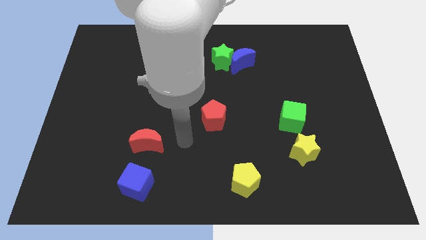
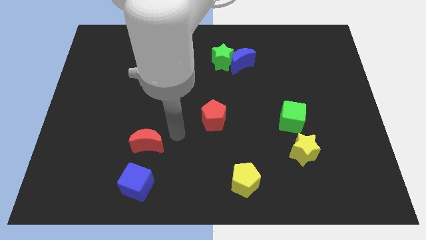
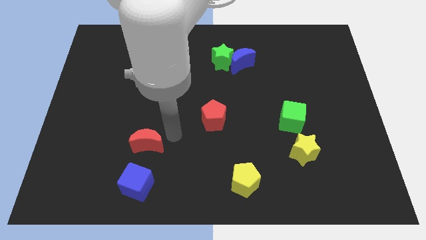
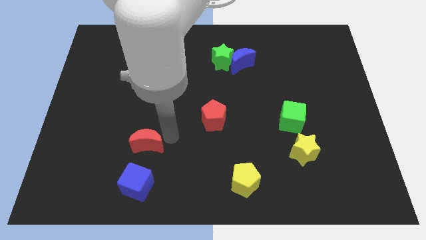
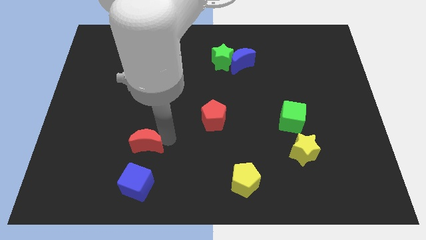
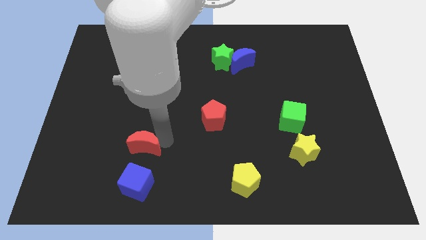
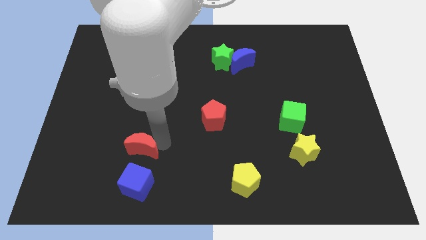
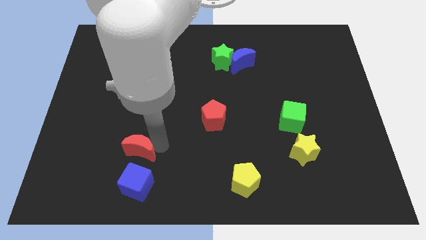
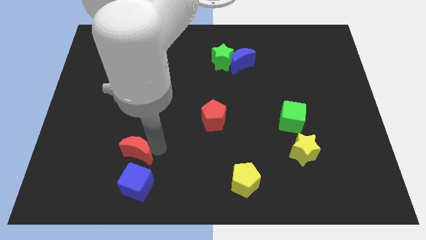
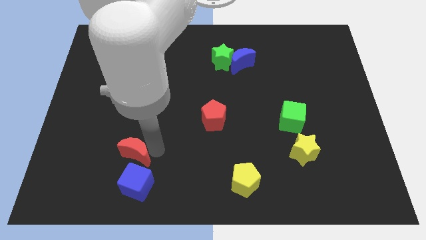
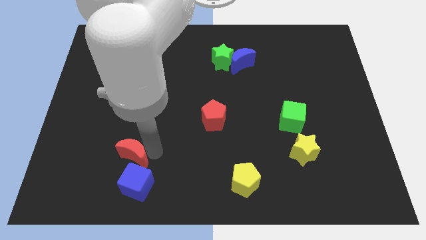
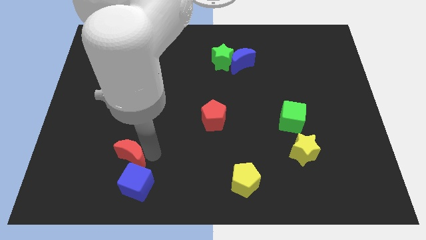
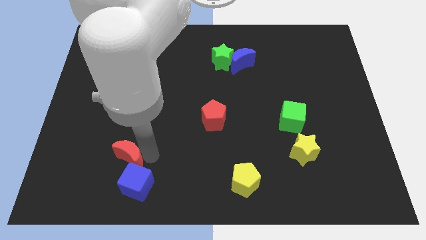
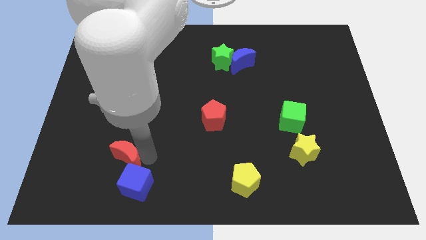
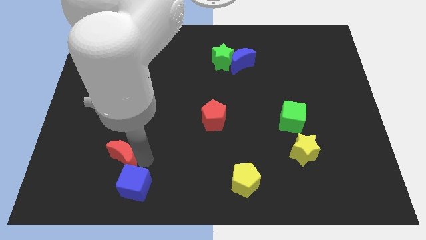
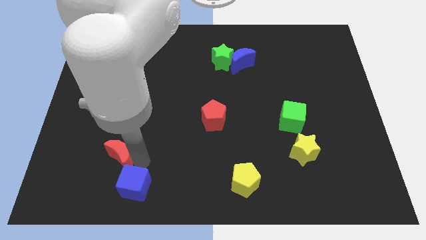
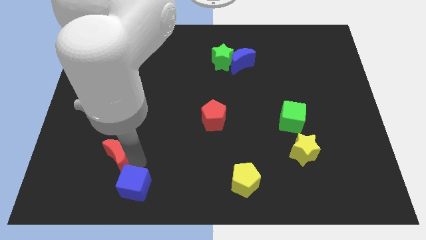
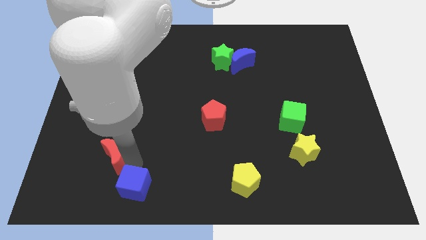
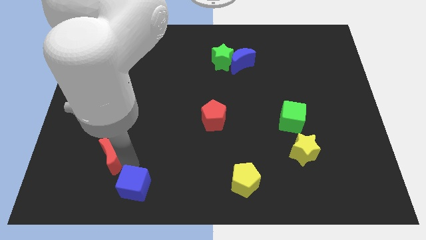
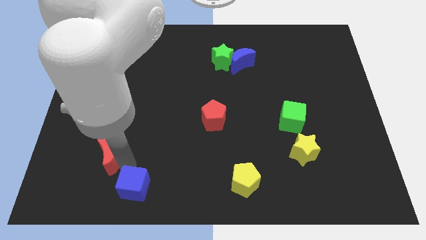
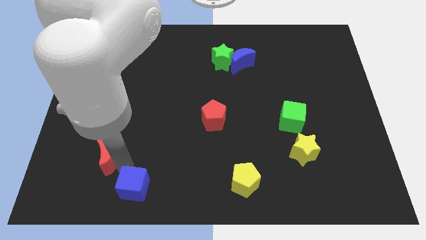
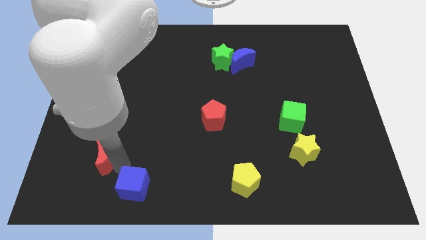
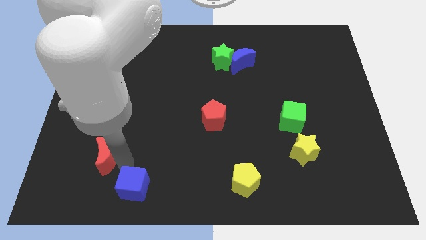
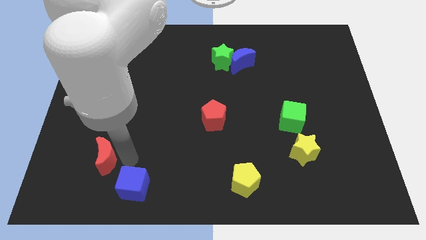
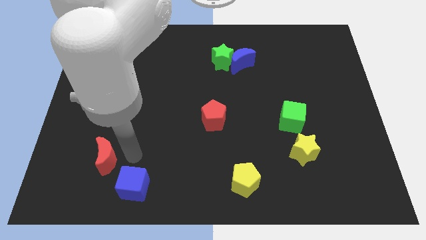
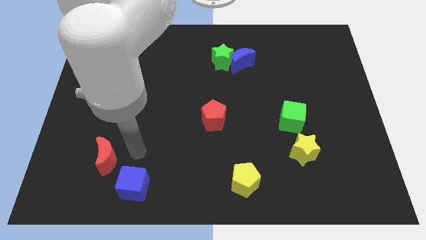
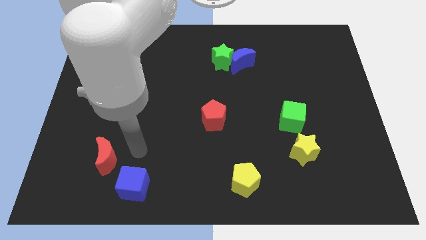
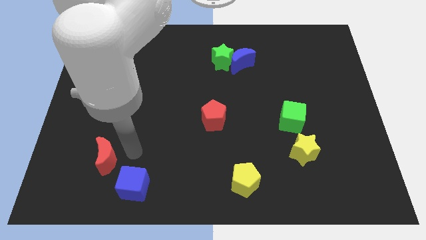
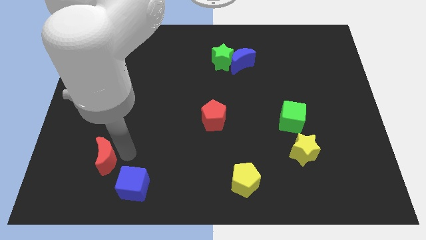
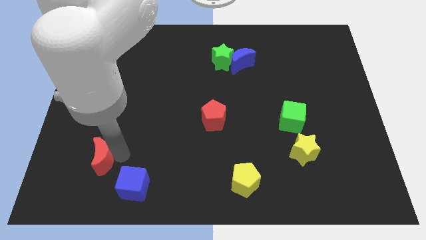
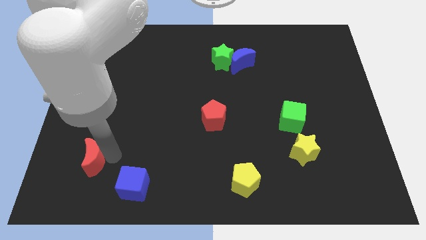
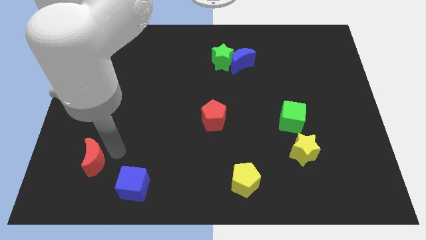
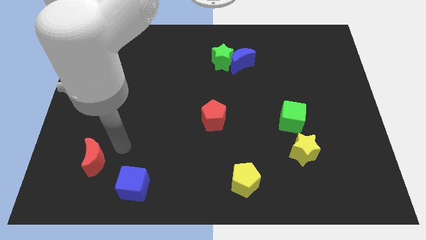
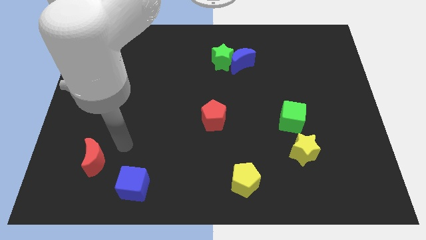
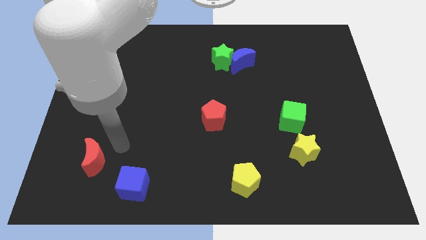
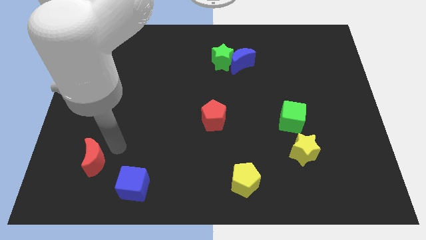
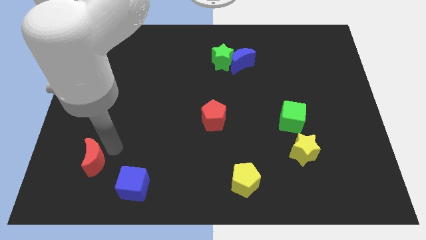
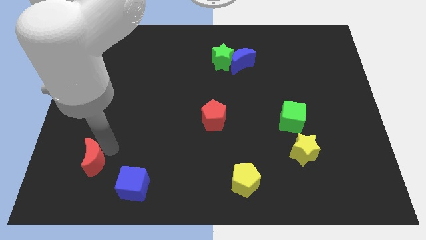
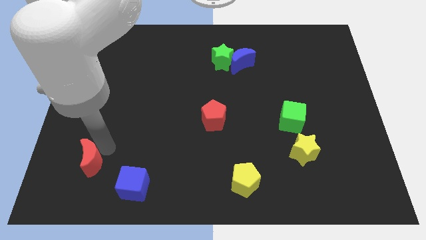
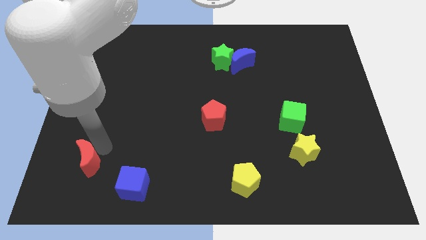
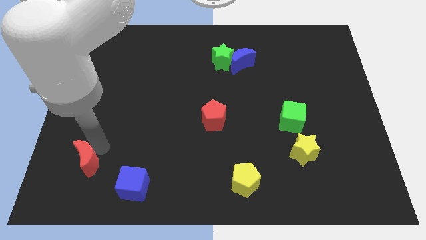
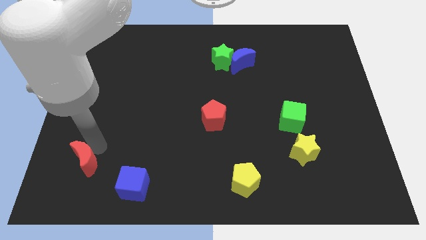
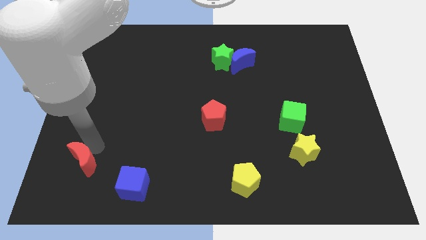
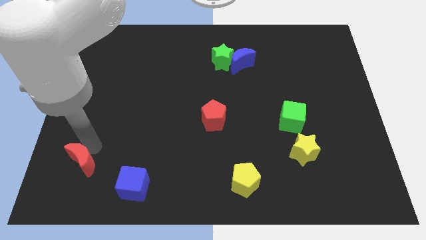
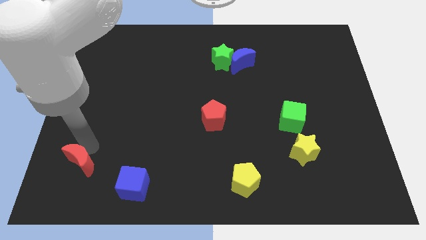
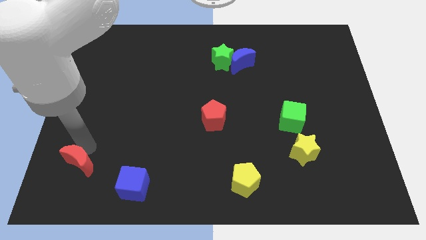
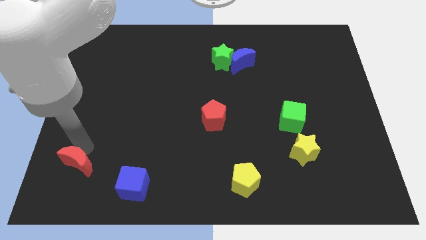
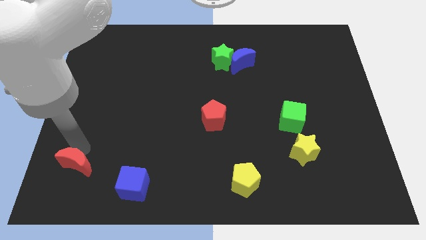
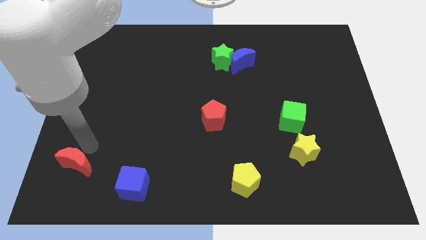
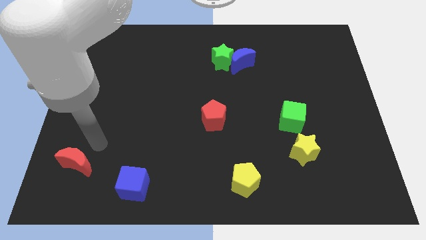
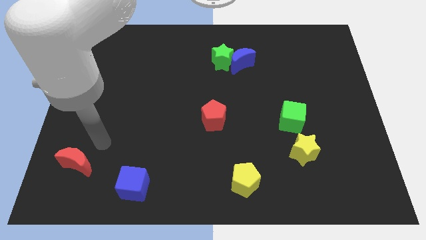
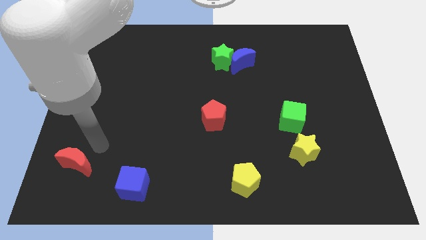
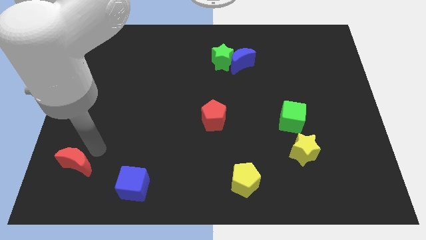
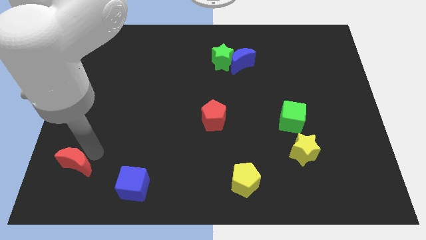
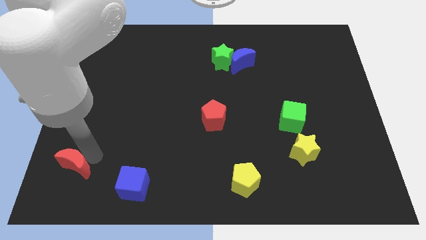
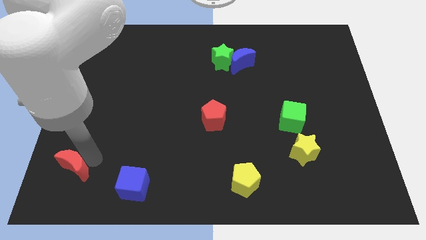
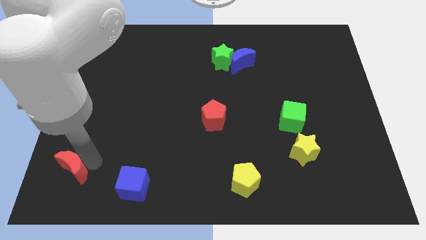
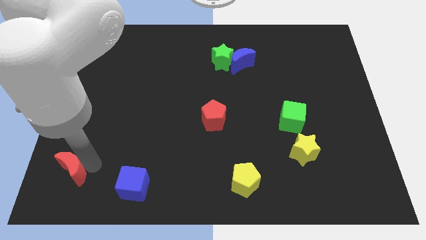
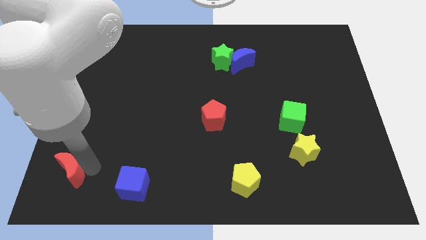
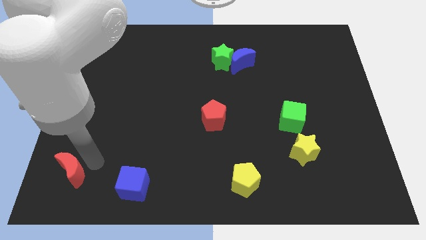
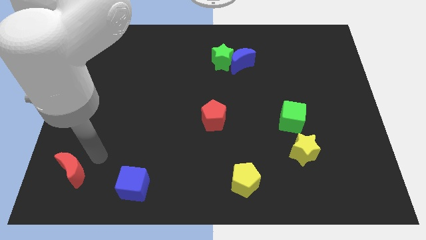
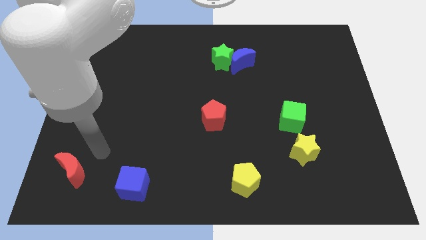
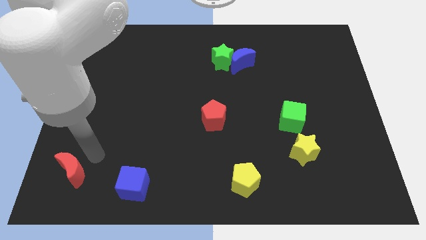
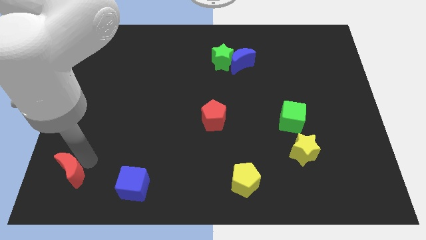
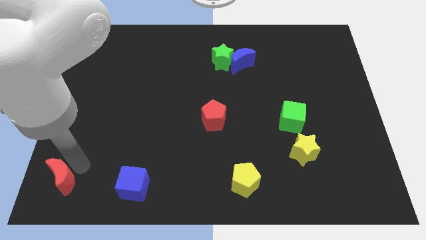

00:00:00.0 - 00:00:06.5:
put the red moon to the bottom left of the board
